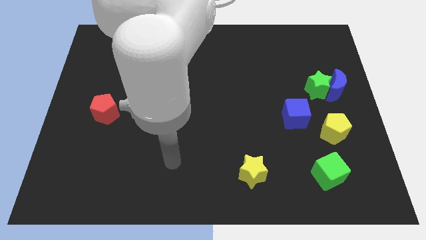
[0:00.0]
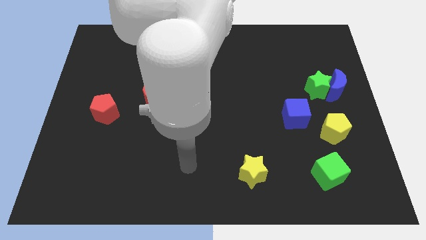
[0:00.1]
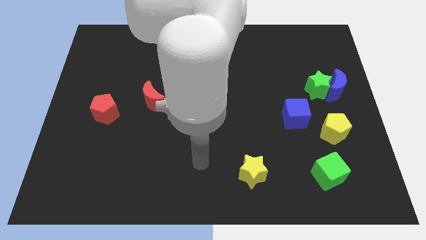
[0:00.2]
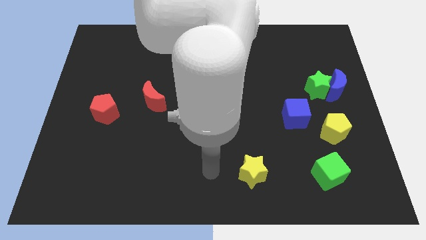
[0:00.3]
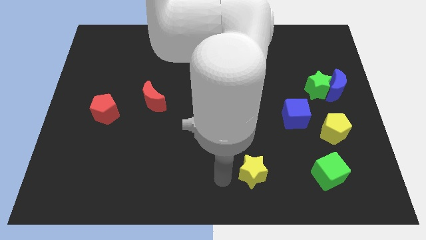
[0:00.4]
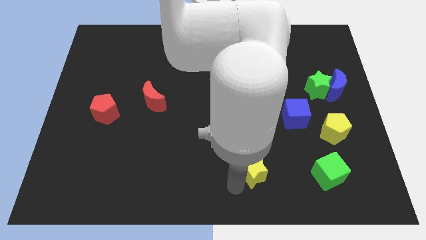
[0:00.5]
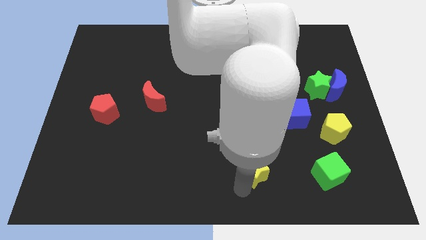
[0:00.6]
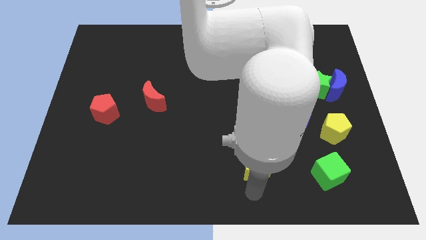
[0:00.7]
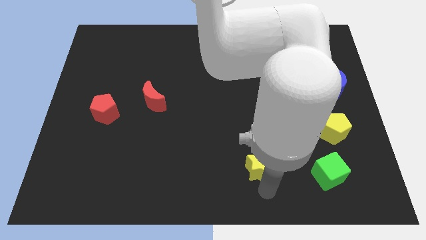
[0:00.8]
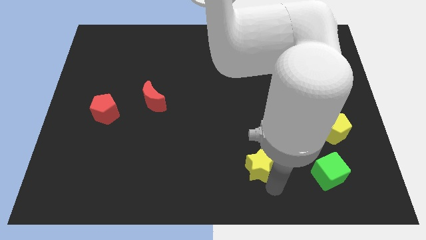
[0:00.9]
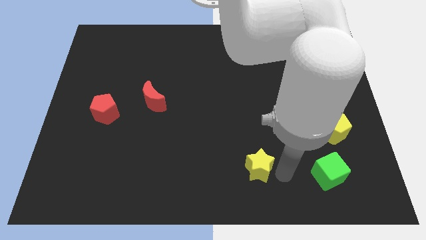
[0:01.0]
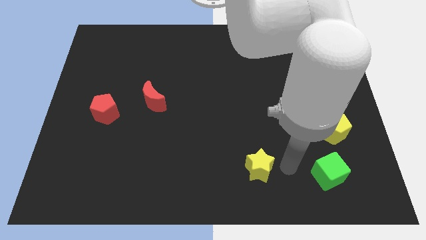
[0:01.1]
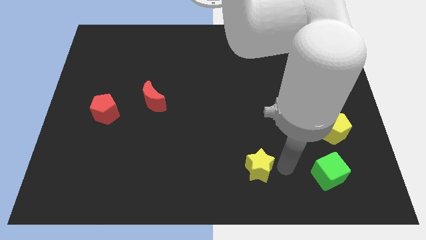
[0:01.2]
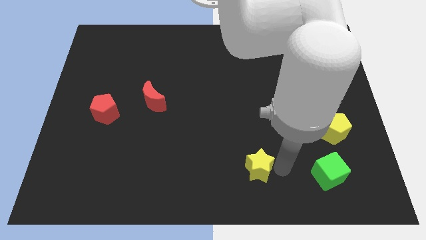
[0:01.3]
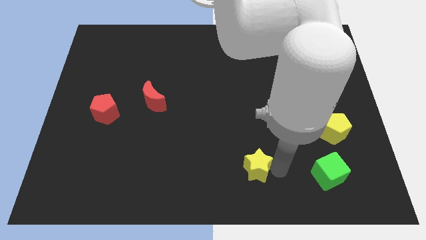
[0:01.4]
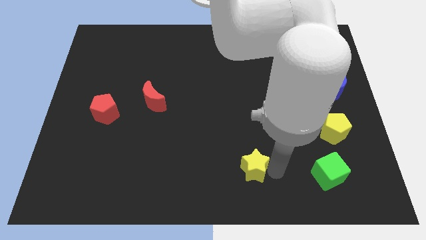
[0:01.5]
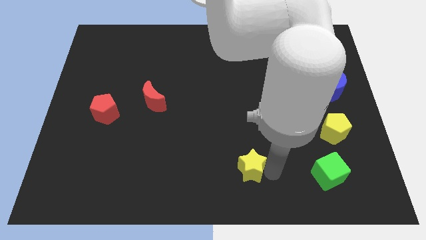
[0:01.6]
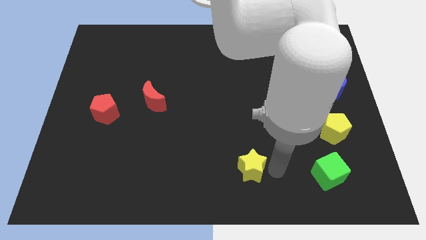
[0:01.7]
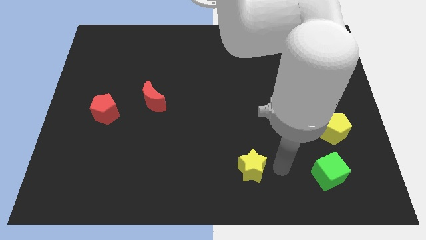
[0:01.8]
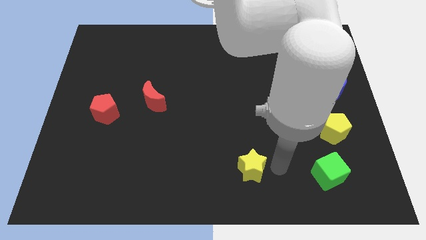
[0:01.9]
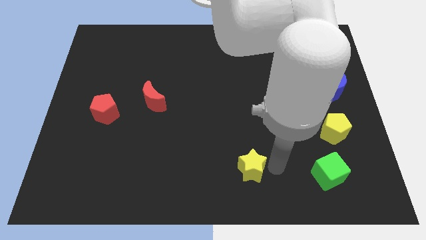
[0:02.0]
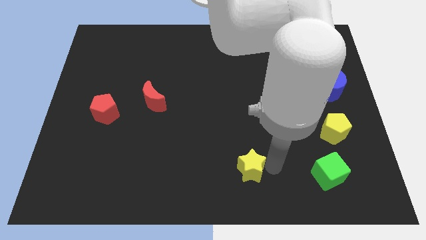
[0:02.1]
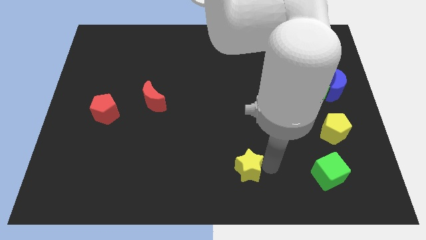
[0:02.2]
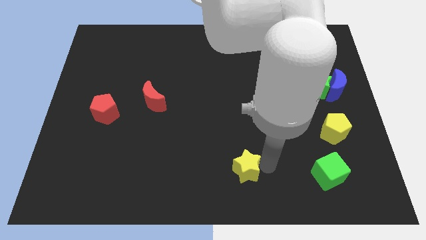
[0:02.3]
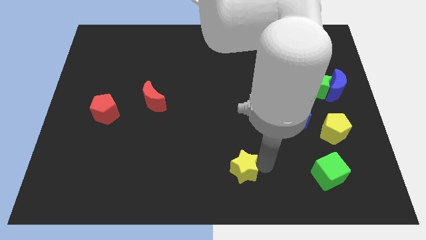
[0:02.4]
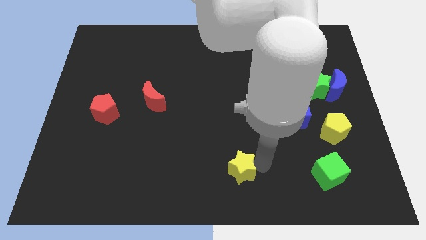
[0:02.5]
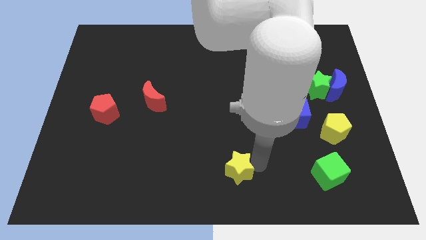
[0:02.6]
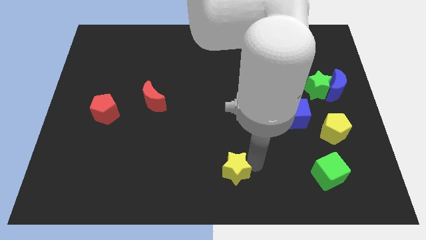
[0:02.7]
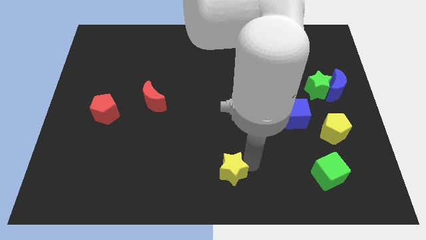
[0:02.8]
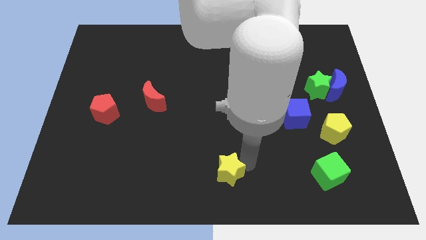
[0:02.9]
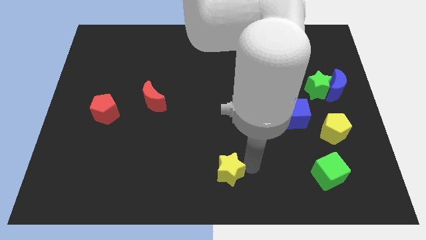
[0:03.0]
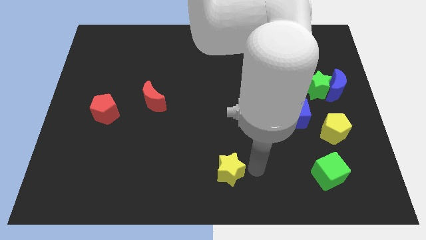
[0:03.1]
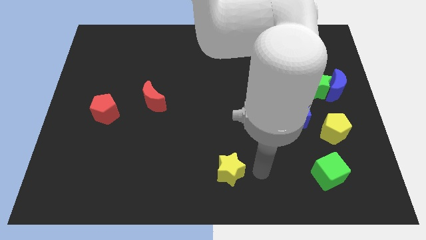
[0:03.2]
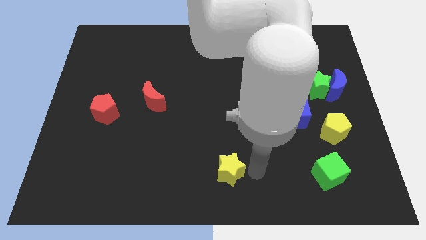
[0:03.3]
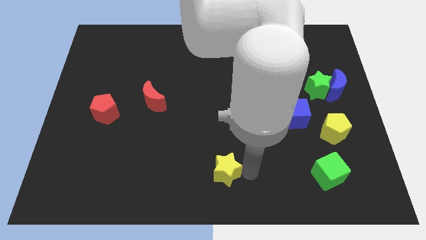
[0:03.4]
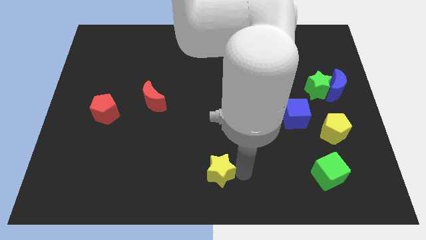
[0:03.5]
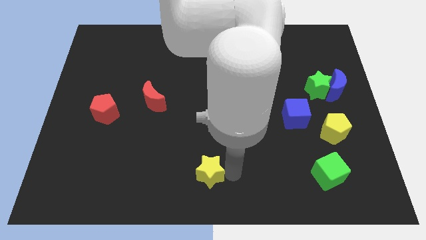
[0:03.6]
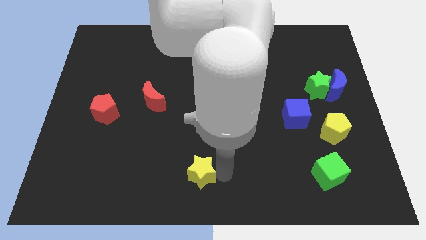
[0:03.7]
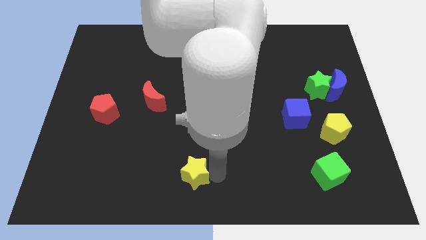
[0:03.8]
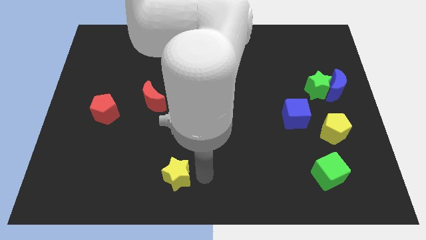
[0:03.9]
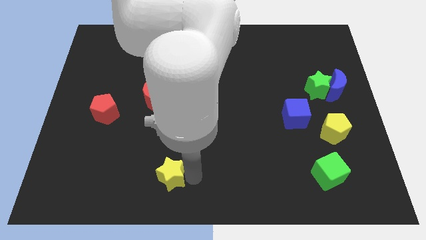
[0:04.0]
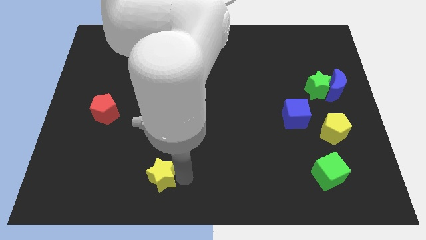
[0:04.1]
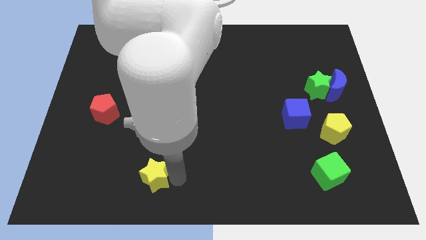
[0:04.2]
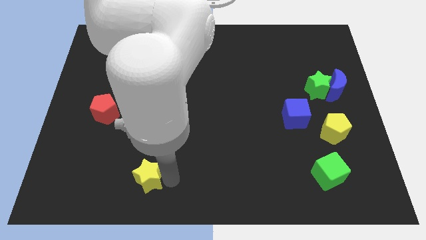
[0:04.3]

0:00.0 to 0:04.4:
push the yellow star to the left

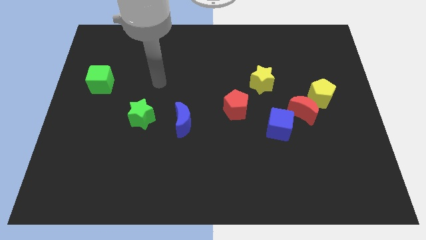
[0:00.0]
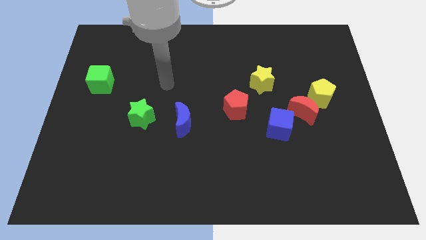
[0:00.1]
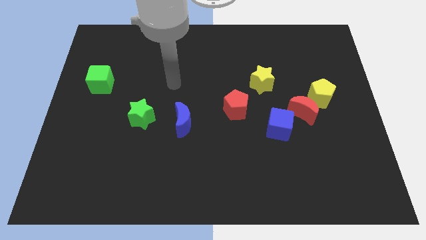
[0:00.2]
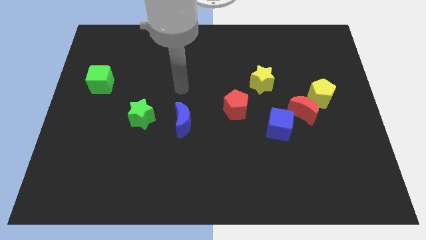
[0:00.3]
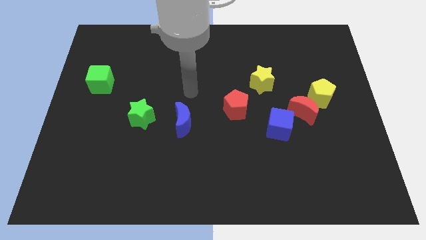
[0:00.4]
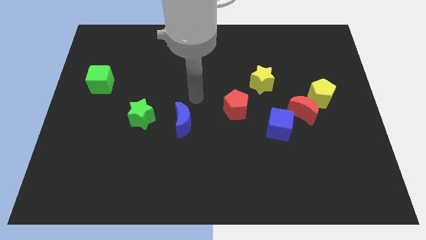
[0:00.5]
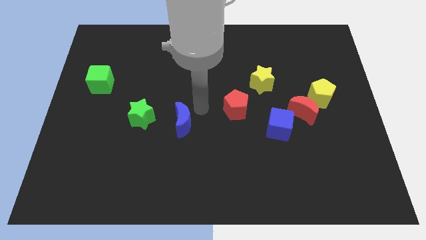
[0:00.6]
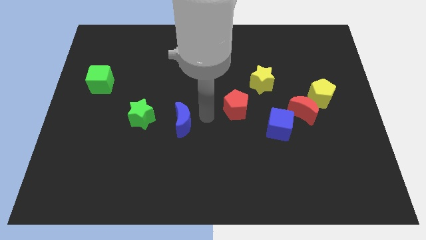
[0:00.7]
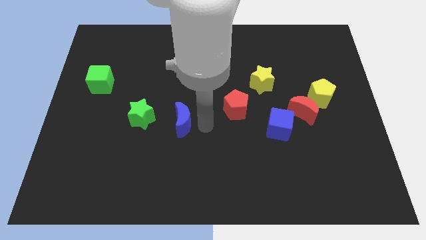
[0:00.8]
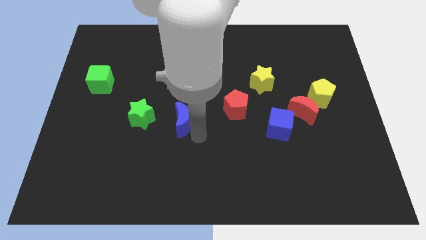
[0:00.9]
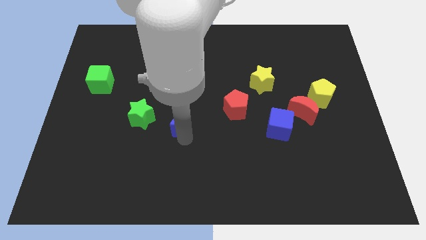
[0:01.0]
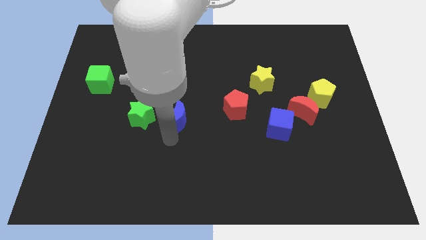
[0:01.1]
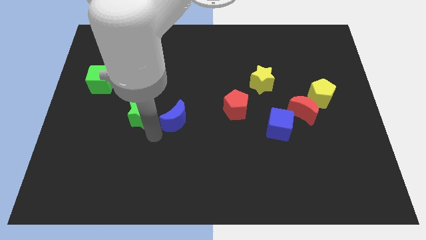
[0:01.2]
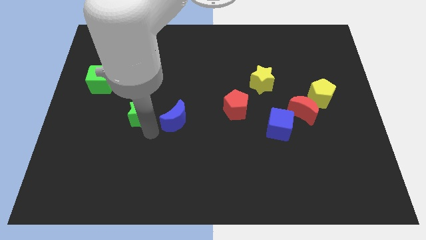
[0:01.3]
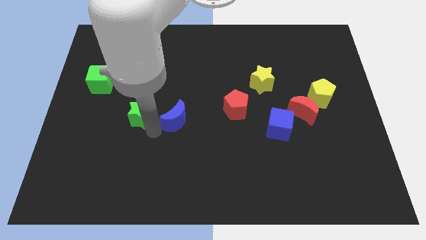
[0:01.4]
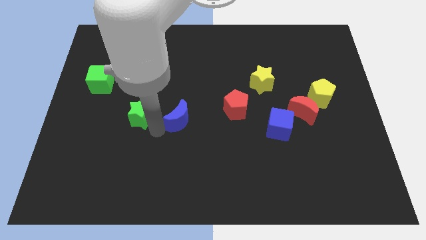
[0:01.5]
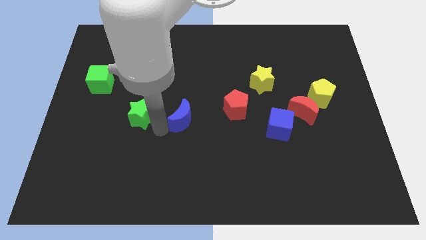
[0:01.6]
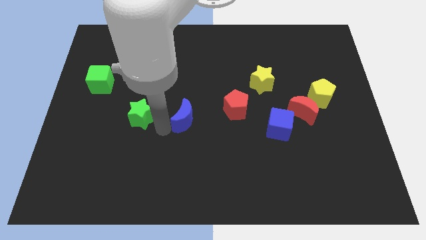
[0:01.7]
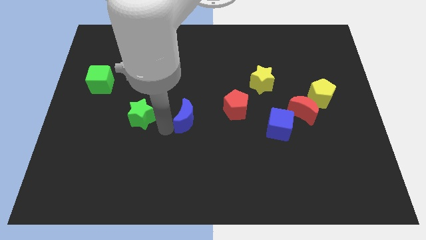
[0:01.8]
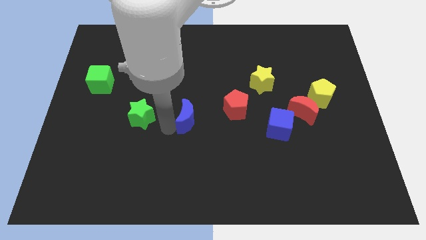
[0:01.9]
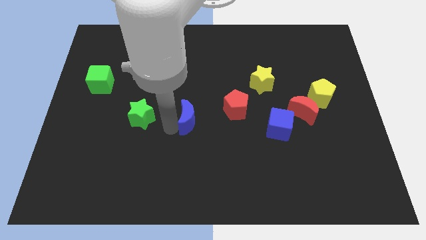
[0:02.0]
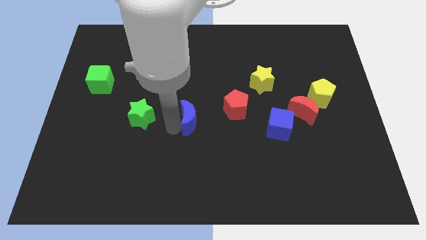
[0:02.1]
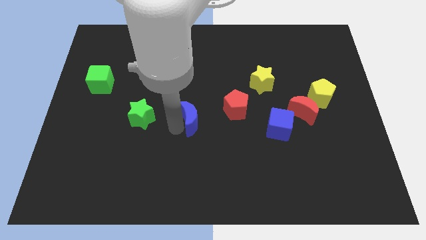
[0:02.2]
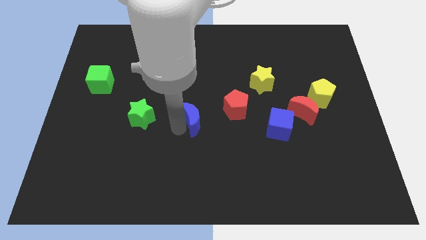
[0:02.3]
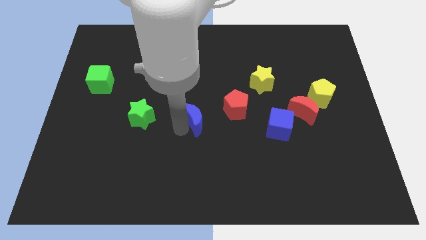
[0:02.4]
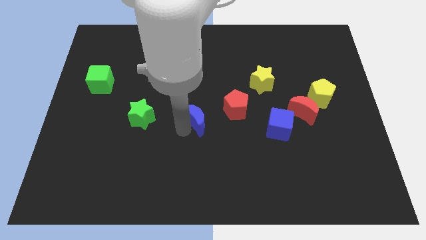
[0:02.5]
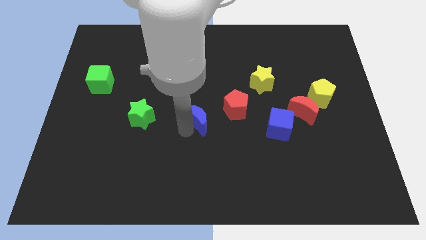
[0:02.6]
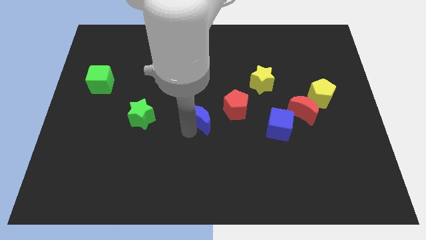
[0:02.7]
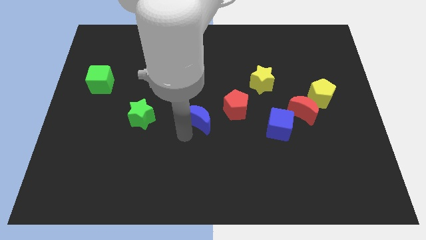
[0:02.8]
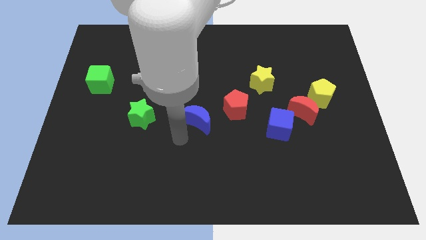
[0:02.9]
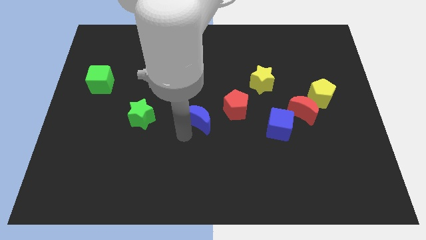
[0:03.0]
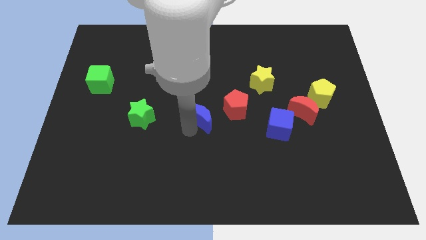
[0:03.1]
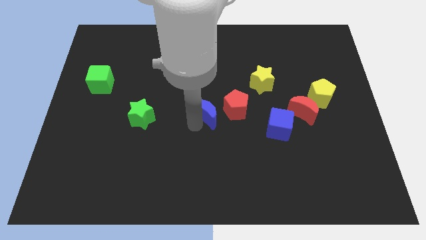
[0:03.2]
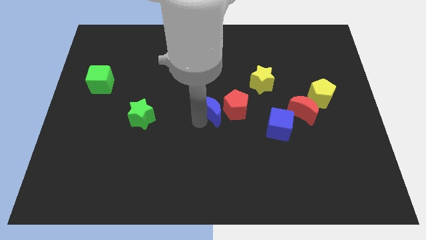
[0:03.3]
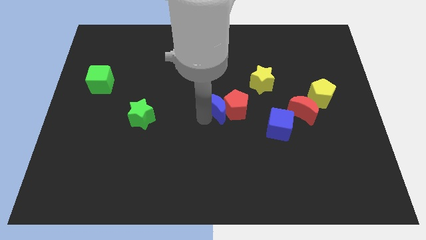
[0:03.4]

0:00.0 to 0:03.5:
slightly move the blue moon up and right diagonally

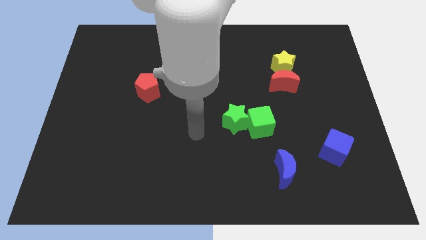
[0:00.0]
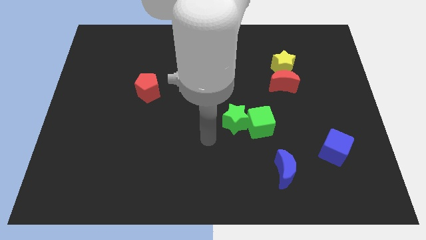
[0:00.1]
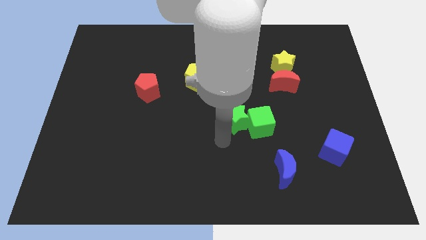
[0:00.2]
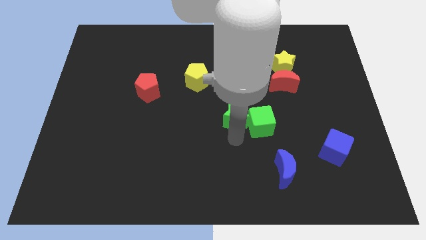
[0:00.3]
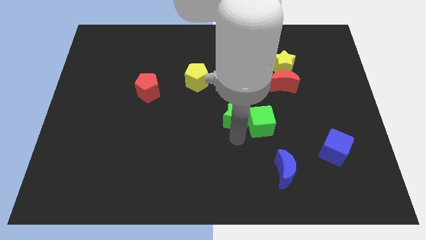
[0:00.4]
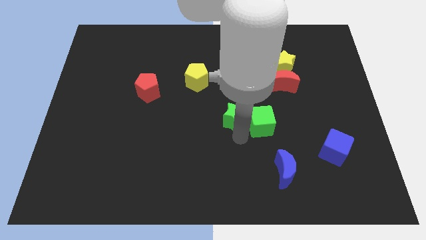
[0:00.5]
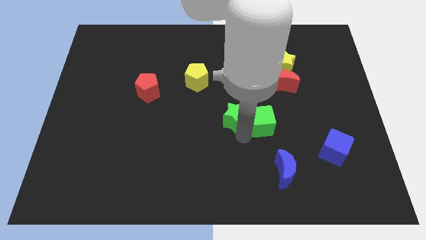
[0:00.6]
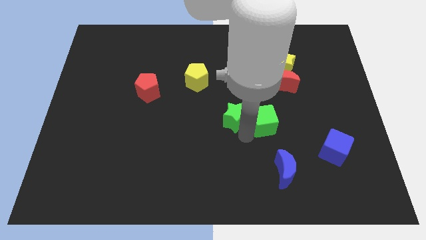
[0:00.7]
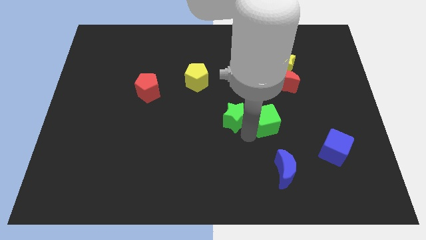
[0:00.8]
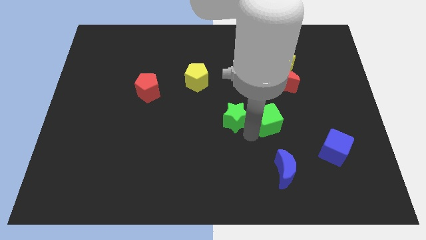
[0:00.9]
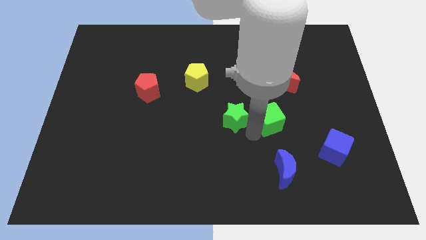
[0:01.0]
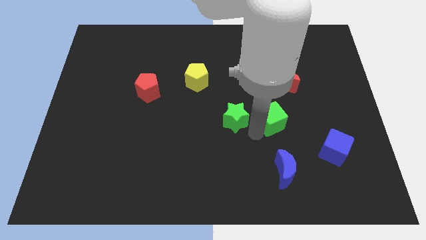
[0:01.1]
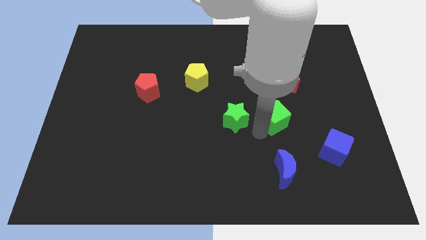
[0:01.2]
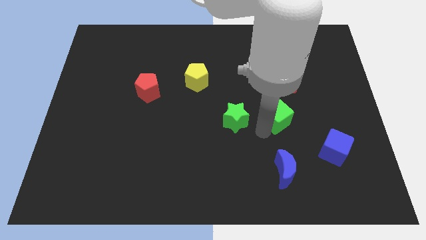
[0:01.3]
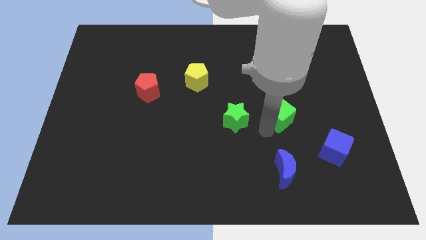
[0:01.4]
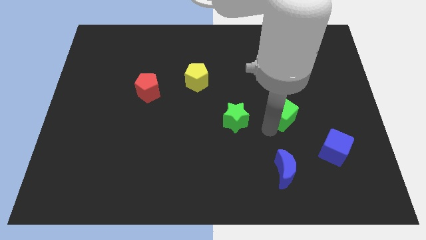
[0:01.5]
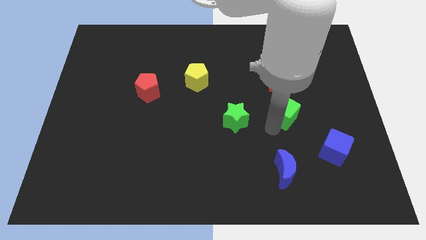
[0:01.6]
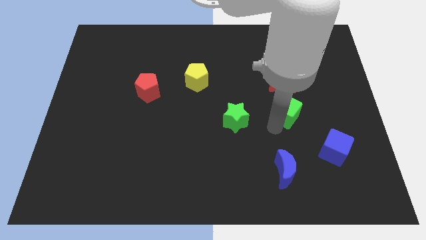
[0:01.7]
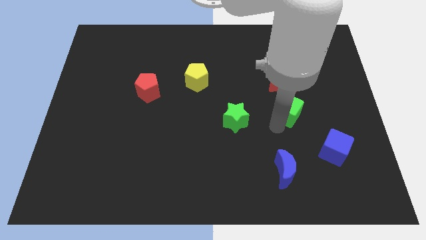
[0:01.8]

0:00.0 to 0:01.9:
slide the green cube upwards and to the right diagonally a little
